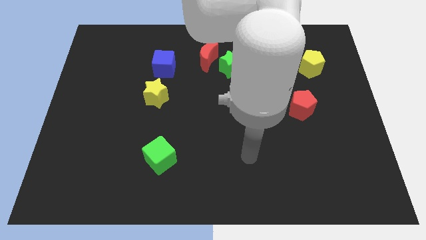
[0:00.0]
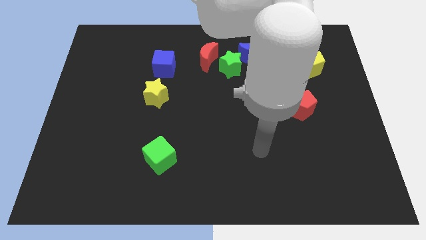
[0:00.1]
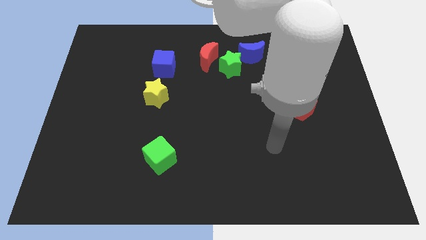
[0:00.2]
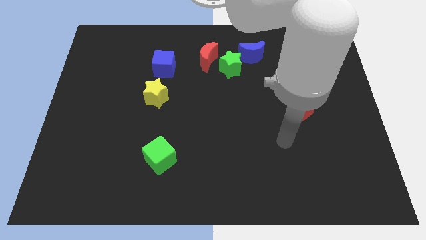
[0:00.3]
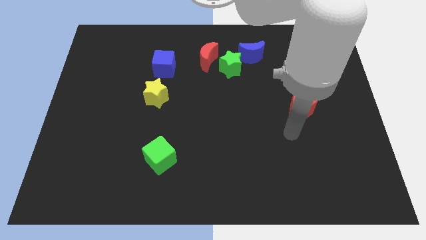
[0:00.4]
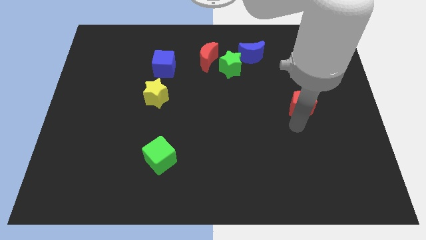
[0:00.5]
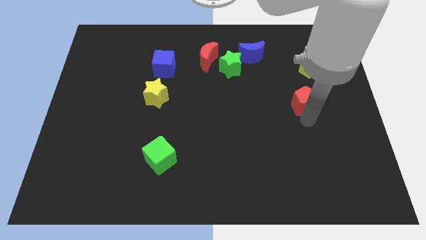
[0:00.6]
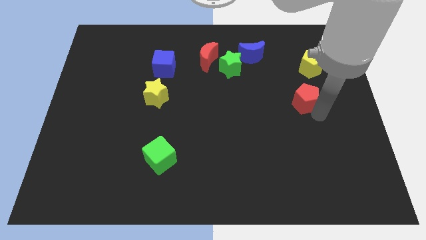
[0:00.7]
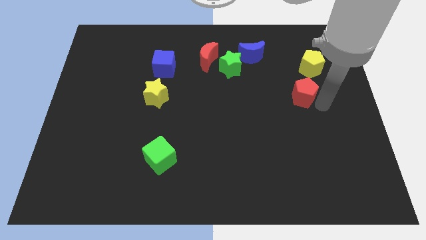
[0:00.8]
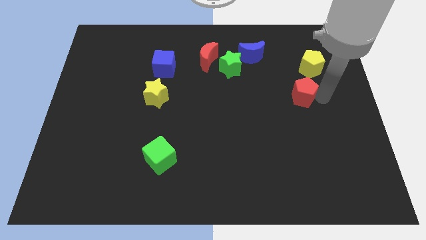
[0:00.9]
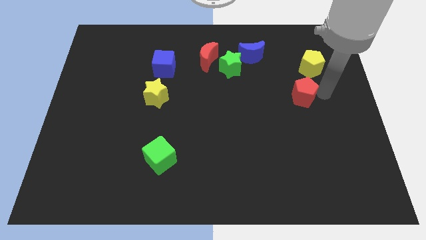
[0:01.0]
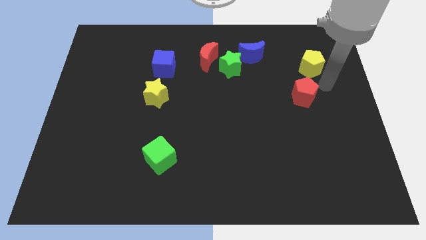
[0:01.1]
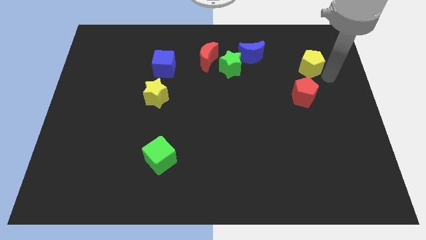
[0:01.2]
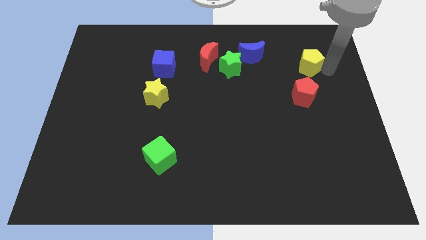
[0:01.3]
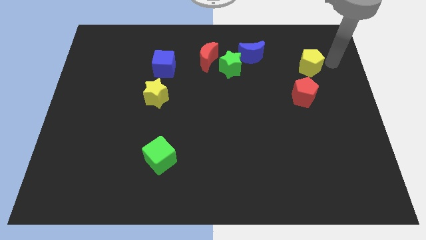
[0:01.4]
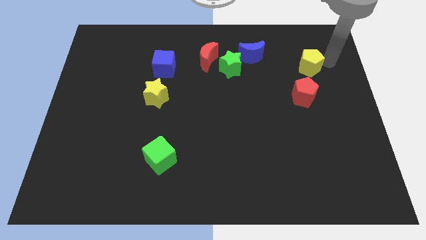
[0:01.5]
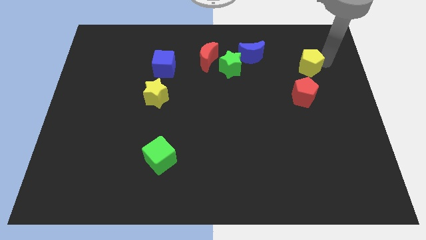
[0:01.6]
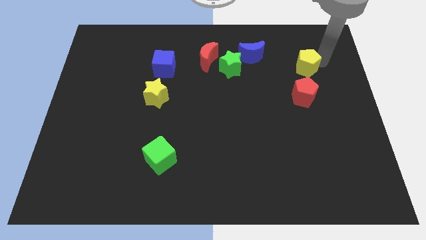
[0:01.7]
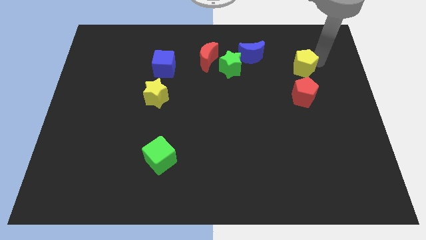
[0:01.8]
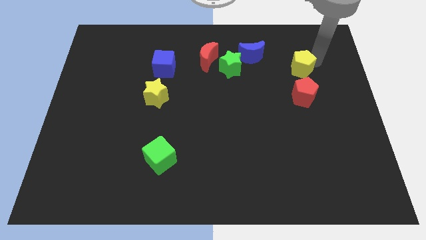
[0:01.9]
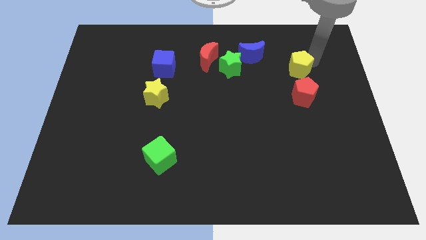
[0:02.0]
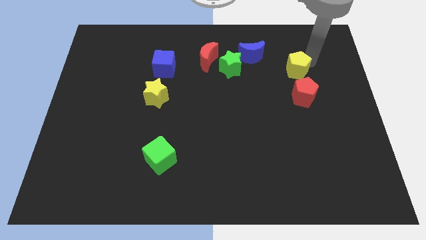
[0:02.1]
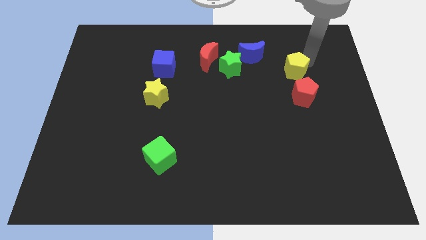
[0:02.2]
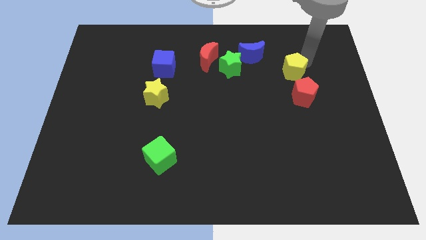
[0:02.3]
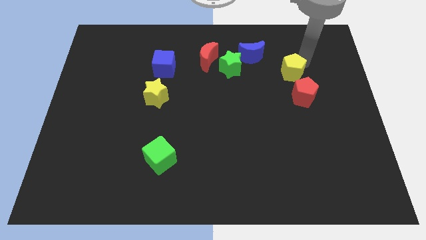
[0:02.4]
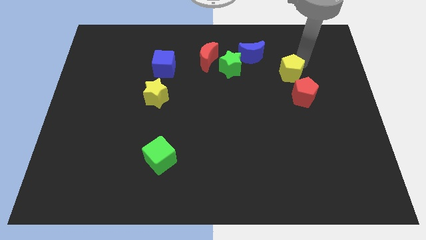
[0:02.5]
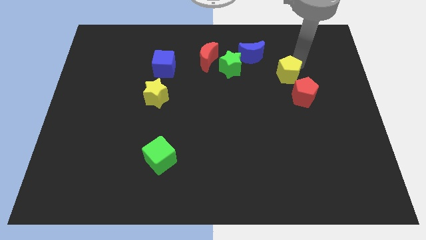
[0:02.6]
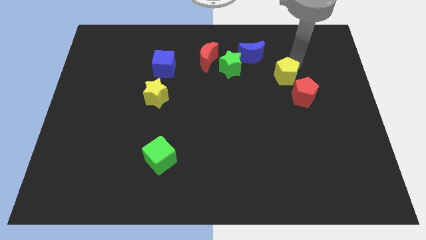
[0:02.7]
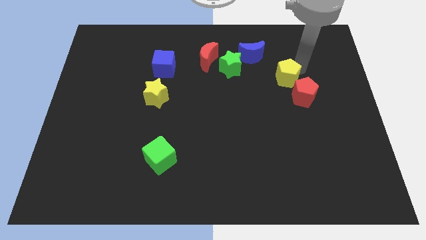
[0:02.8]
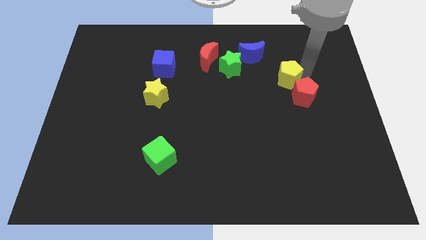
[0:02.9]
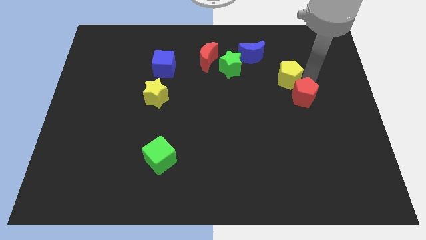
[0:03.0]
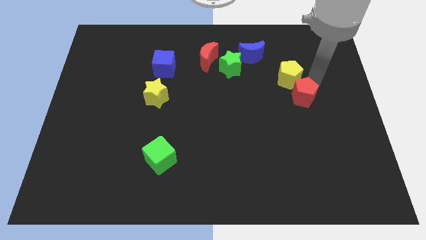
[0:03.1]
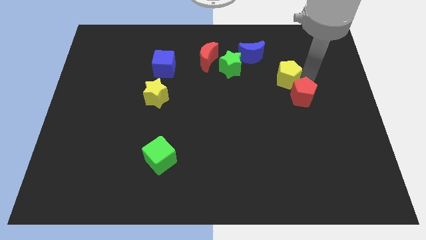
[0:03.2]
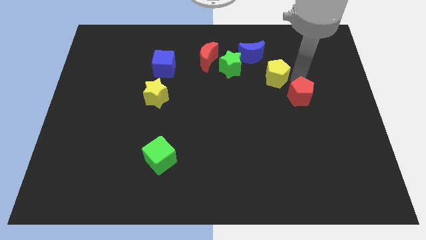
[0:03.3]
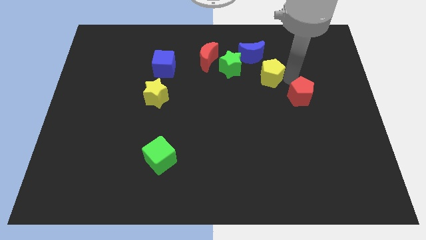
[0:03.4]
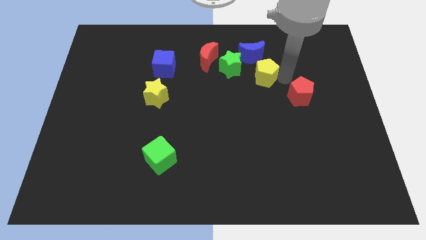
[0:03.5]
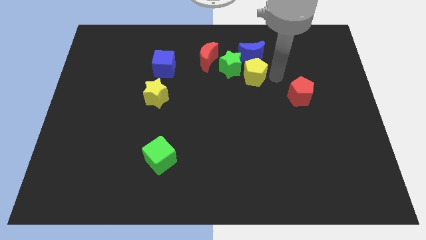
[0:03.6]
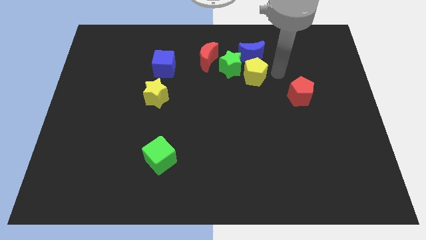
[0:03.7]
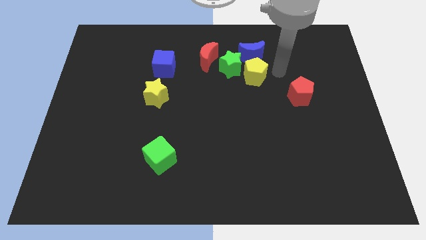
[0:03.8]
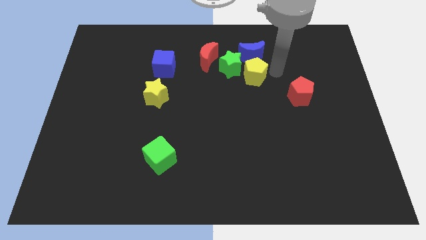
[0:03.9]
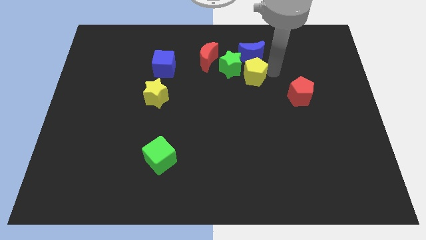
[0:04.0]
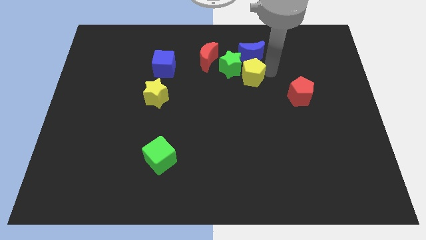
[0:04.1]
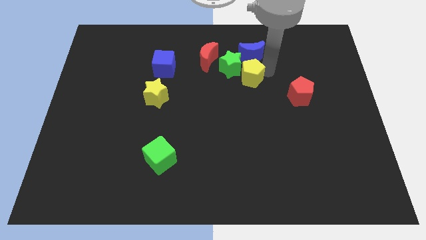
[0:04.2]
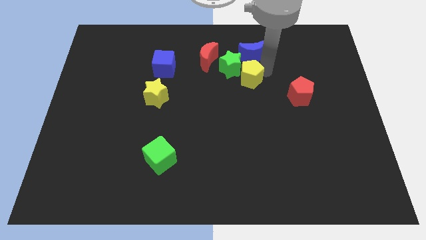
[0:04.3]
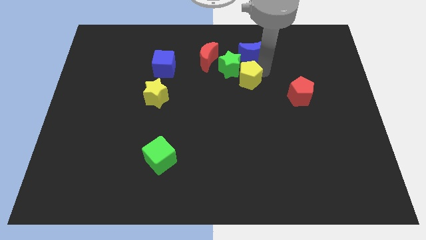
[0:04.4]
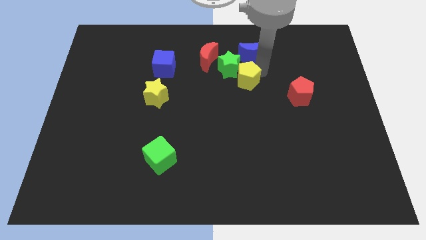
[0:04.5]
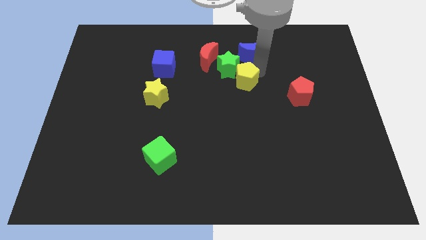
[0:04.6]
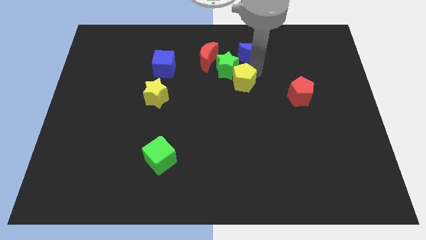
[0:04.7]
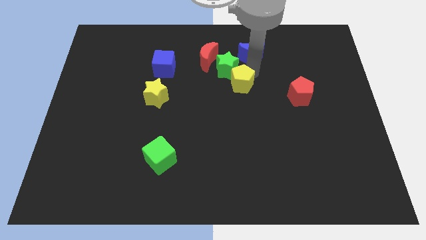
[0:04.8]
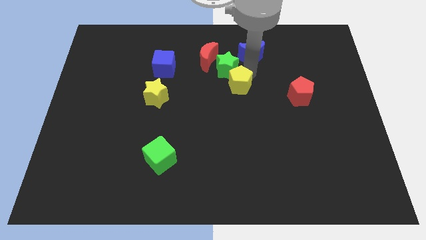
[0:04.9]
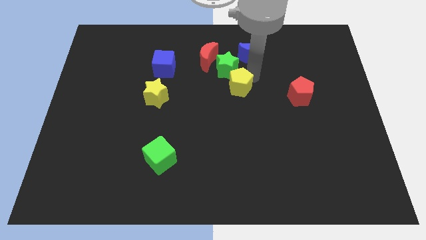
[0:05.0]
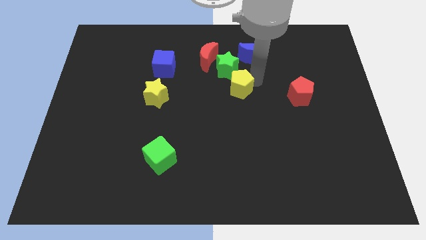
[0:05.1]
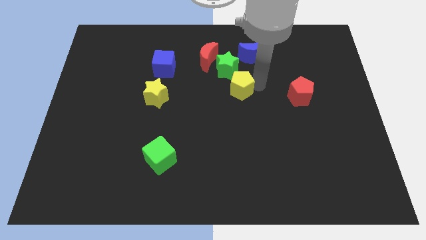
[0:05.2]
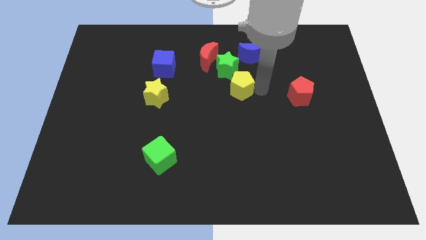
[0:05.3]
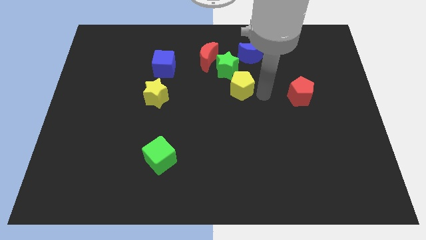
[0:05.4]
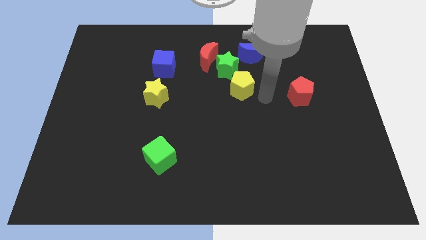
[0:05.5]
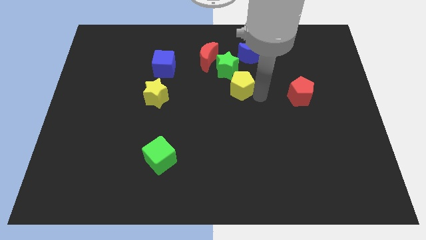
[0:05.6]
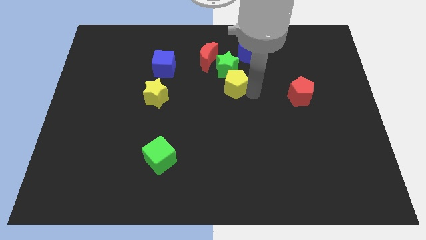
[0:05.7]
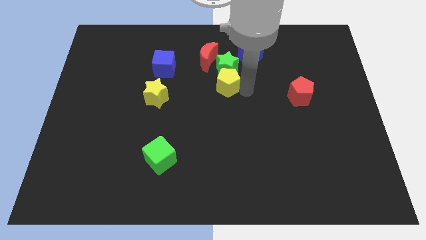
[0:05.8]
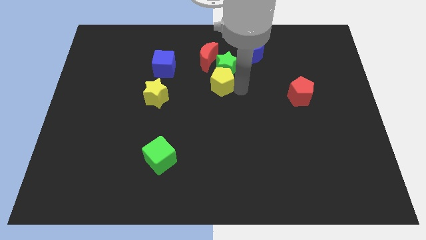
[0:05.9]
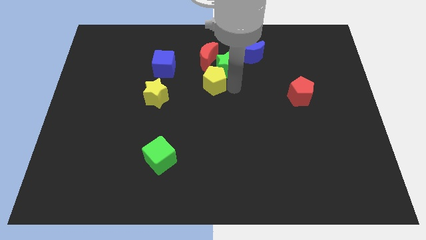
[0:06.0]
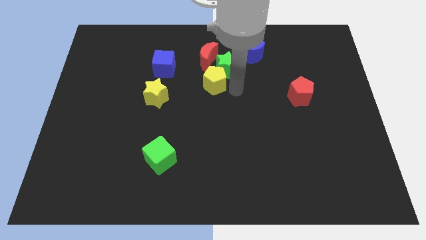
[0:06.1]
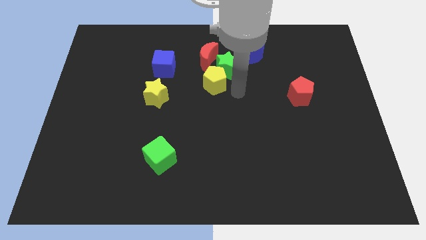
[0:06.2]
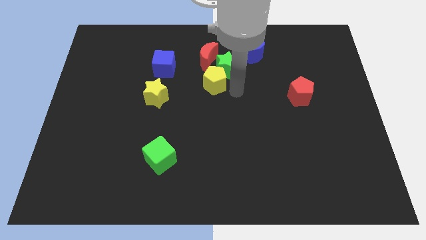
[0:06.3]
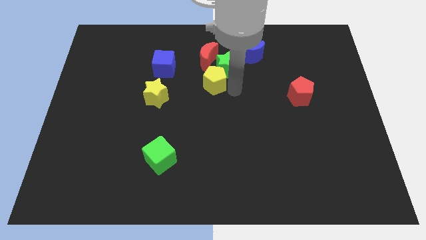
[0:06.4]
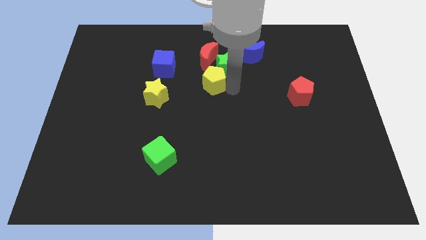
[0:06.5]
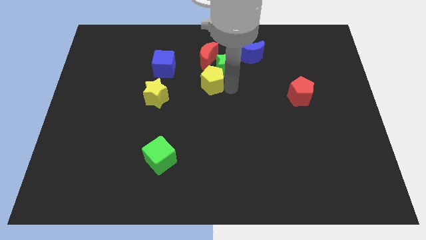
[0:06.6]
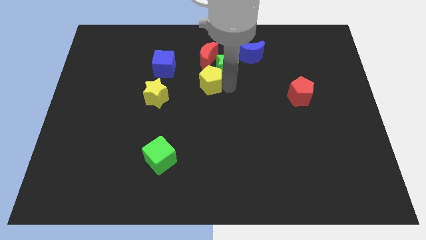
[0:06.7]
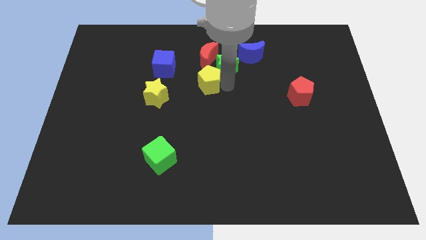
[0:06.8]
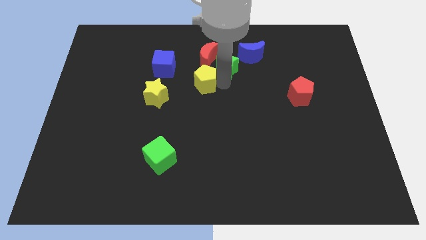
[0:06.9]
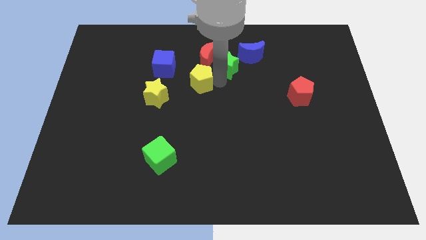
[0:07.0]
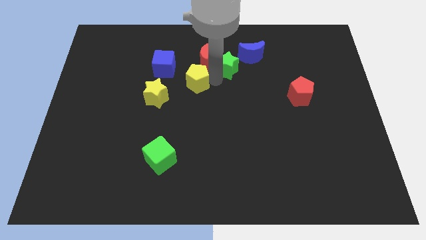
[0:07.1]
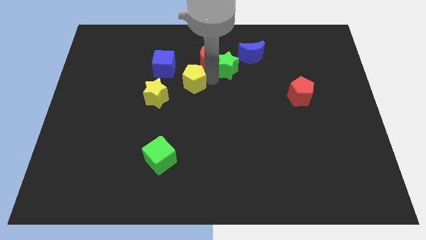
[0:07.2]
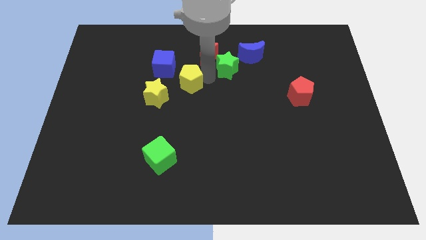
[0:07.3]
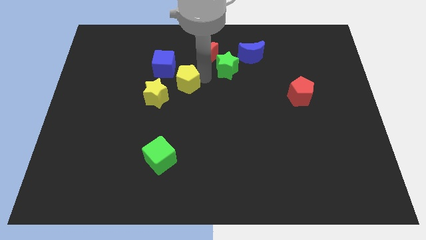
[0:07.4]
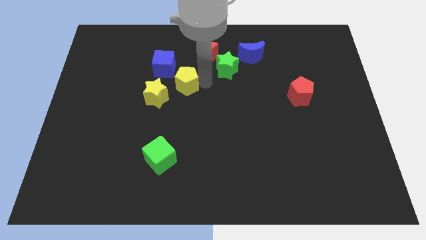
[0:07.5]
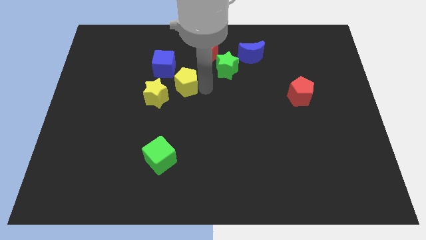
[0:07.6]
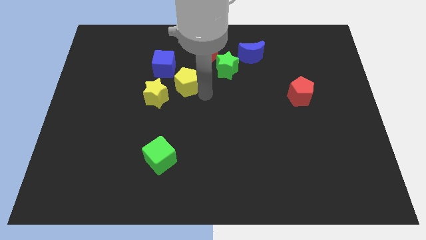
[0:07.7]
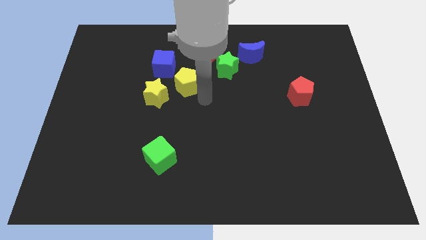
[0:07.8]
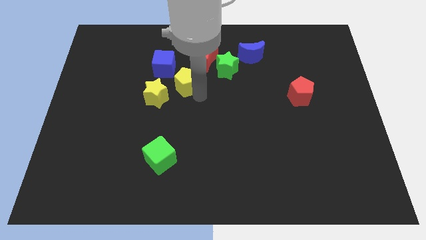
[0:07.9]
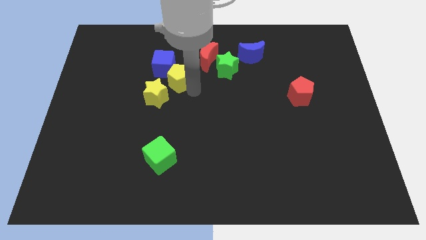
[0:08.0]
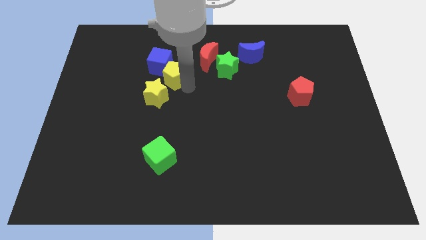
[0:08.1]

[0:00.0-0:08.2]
push the yellow pentagon close to the blue cube
